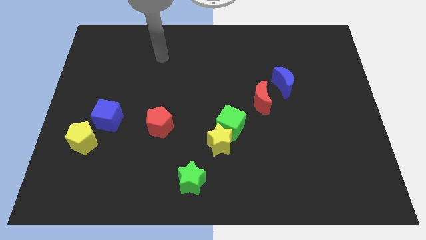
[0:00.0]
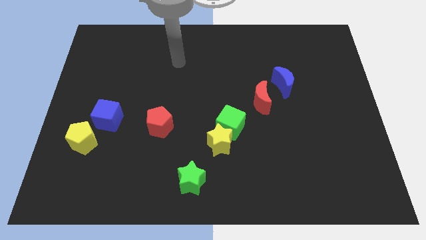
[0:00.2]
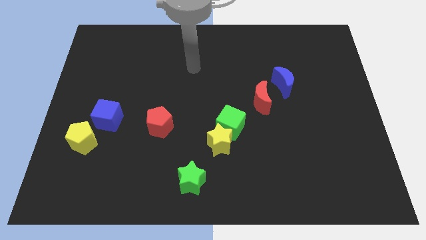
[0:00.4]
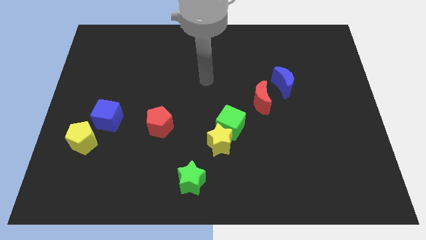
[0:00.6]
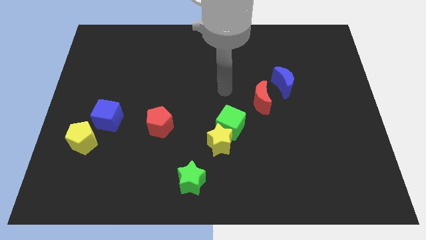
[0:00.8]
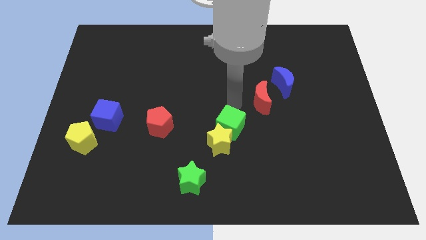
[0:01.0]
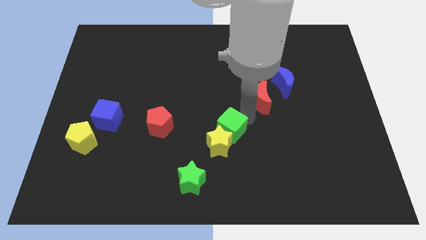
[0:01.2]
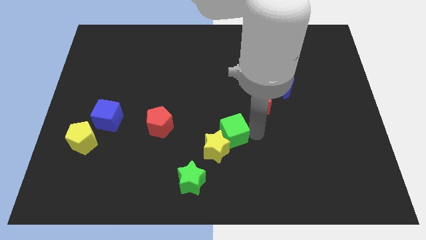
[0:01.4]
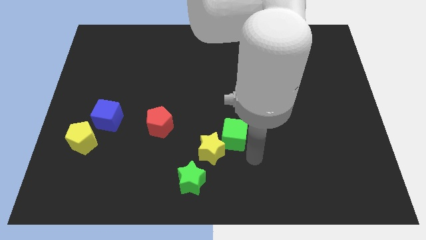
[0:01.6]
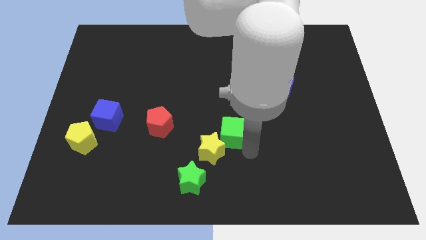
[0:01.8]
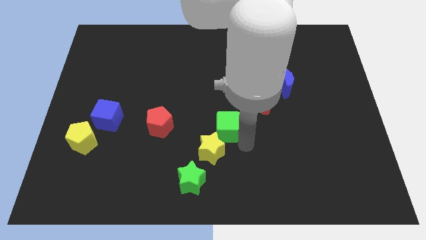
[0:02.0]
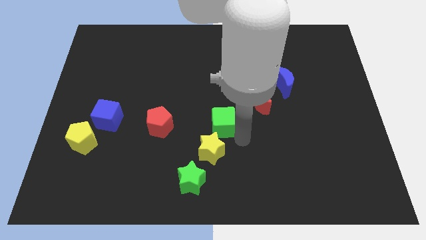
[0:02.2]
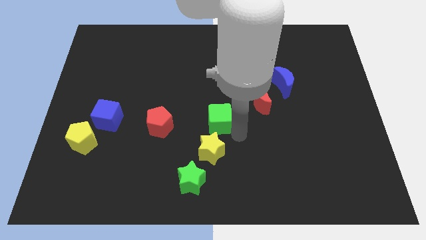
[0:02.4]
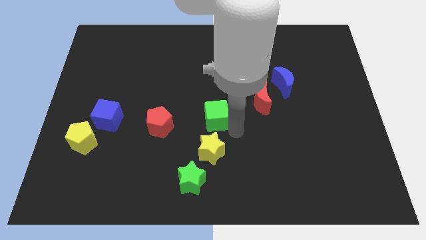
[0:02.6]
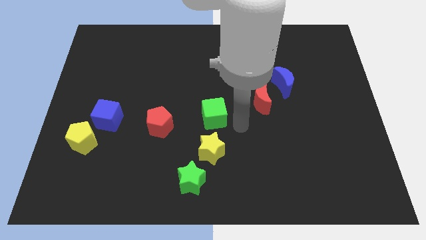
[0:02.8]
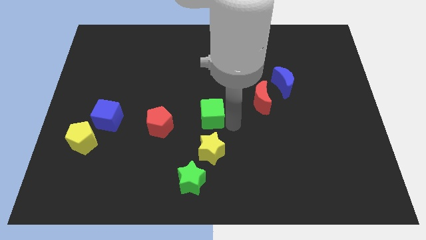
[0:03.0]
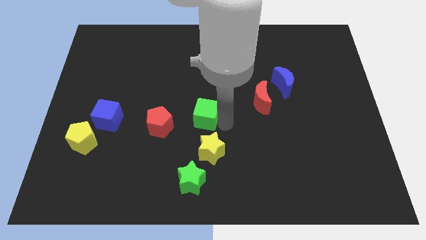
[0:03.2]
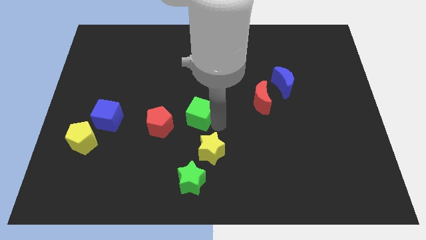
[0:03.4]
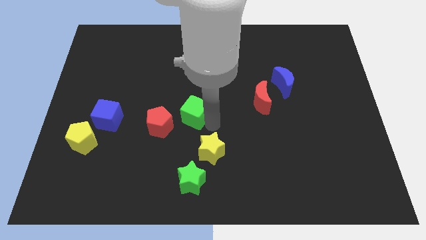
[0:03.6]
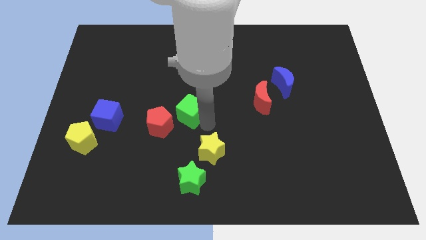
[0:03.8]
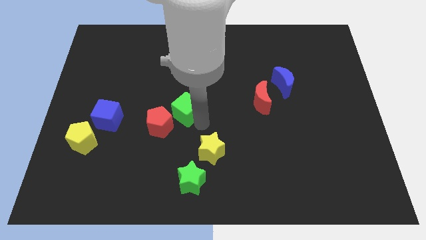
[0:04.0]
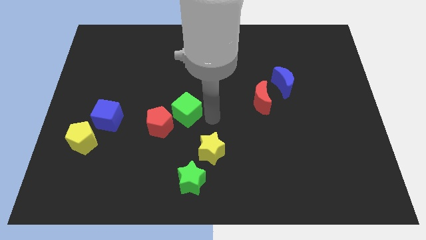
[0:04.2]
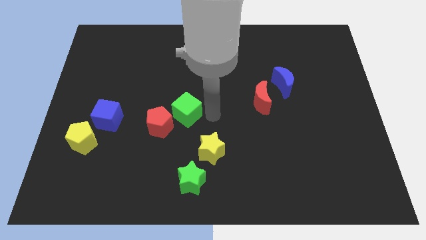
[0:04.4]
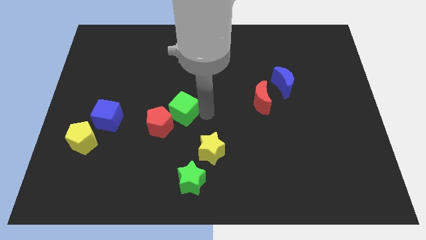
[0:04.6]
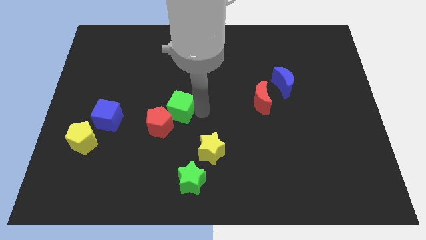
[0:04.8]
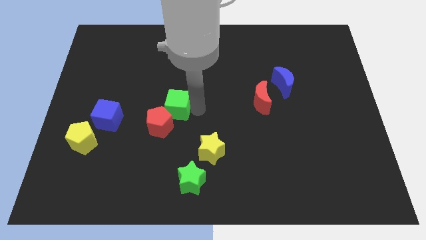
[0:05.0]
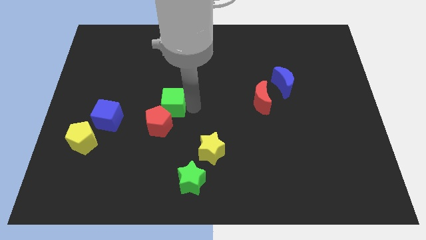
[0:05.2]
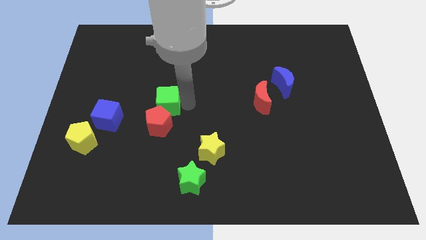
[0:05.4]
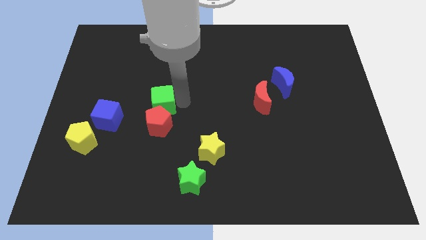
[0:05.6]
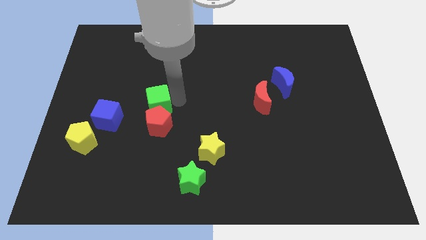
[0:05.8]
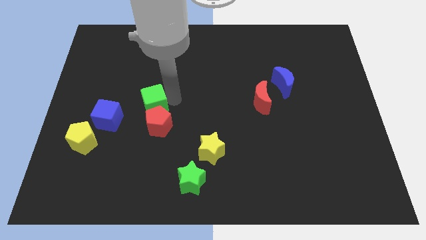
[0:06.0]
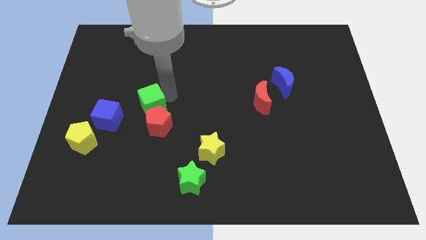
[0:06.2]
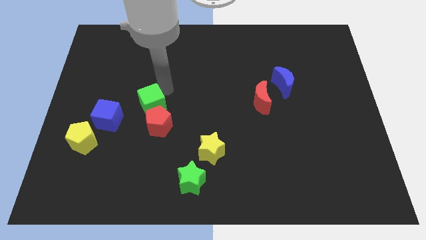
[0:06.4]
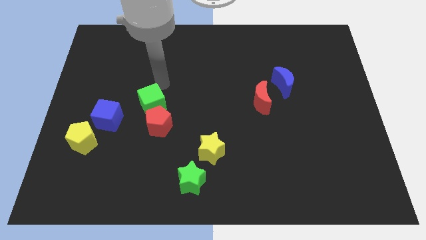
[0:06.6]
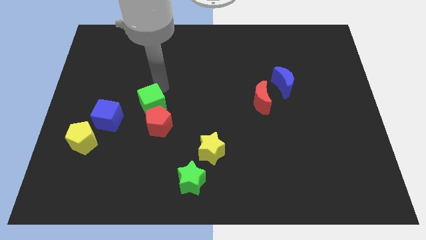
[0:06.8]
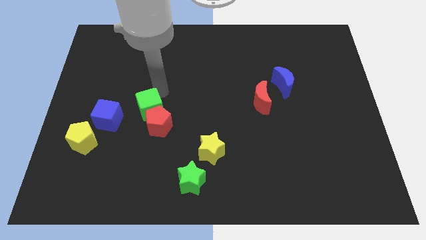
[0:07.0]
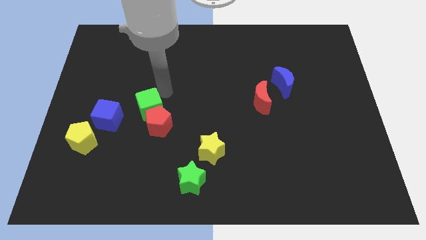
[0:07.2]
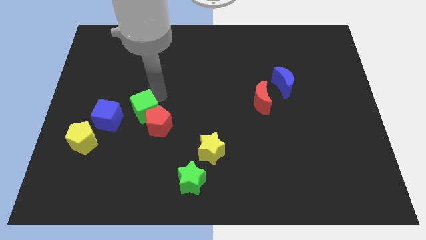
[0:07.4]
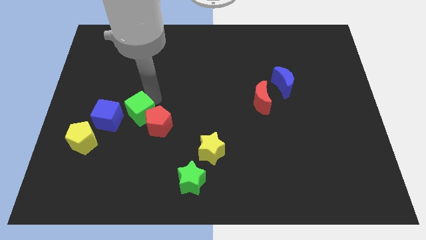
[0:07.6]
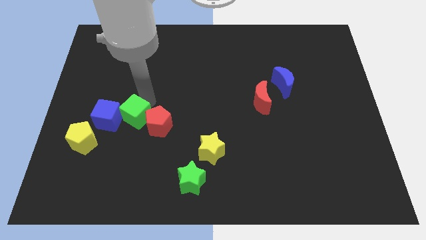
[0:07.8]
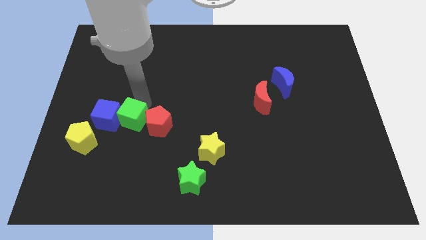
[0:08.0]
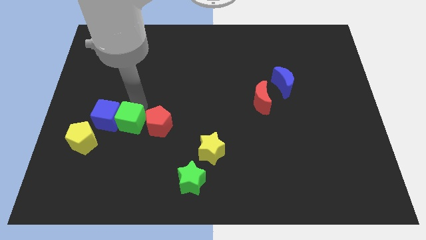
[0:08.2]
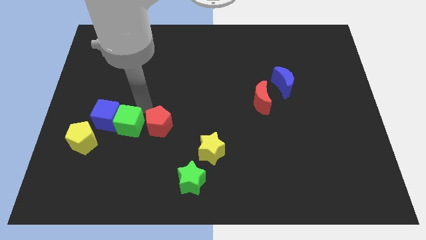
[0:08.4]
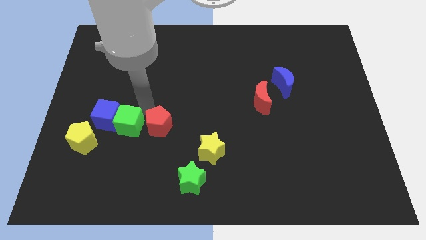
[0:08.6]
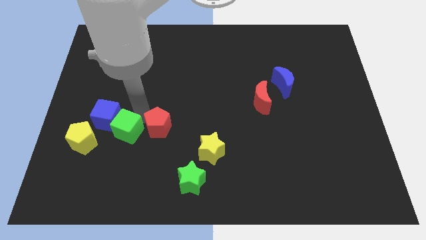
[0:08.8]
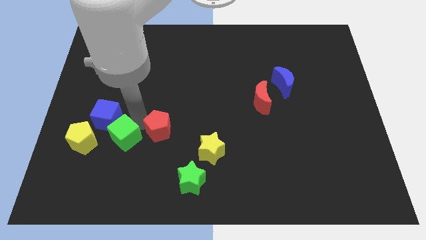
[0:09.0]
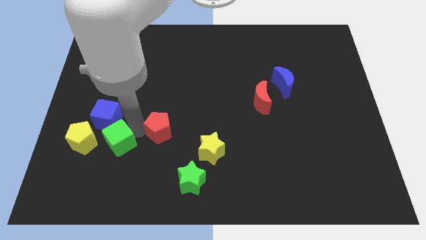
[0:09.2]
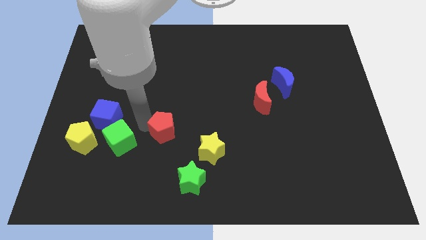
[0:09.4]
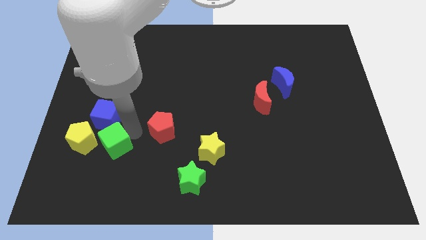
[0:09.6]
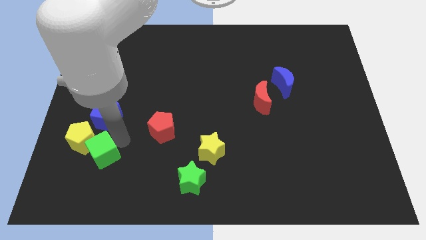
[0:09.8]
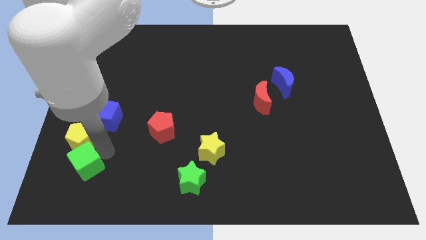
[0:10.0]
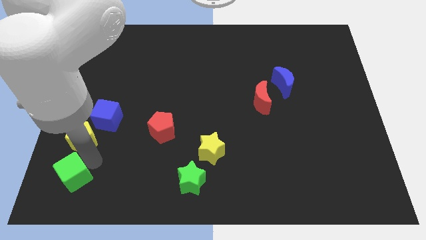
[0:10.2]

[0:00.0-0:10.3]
push the green cube to the bottom left corner
